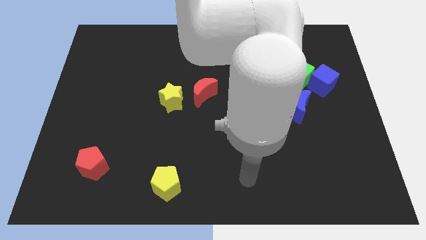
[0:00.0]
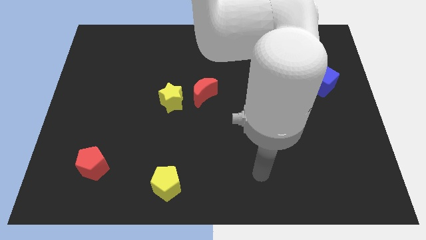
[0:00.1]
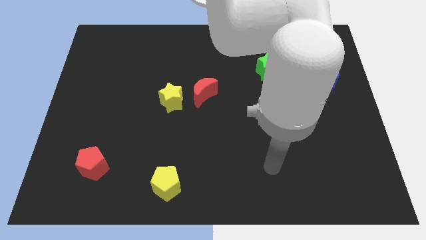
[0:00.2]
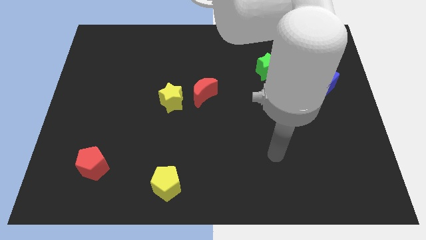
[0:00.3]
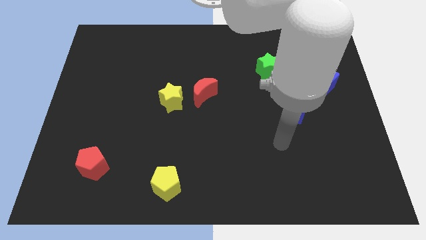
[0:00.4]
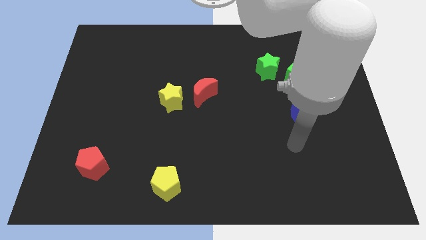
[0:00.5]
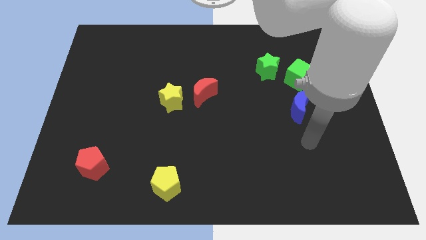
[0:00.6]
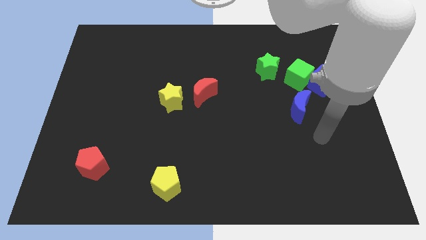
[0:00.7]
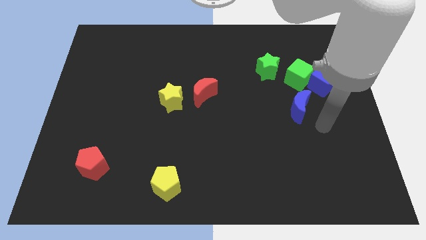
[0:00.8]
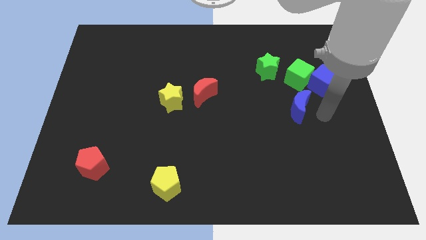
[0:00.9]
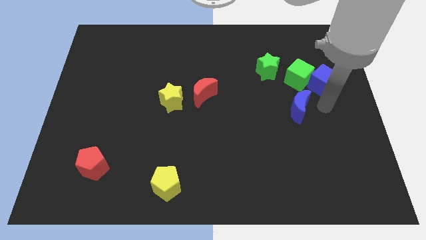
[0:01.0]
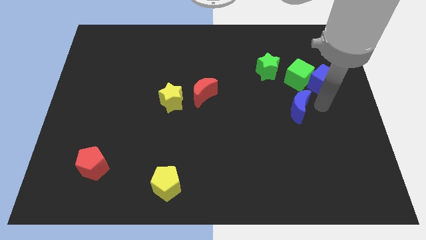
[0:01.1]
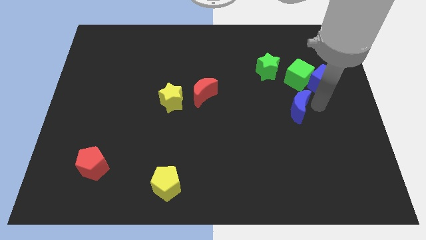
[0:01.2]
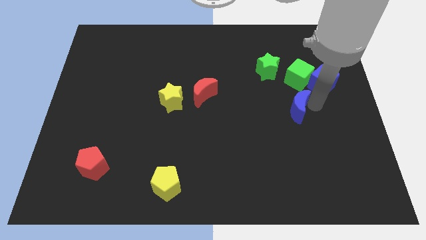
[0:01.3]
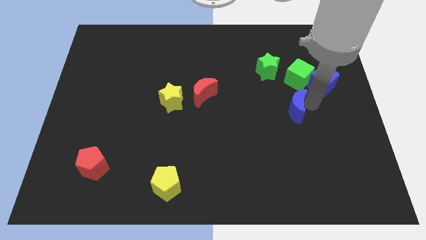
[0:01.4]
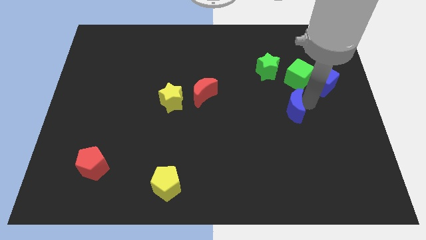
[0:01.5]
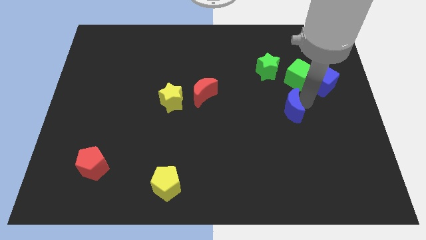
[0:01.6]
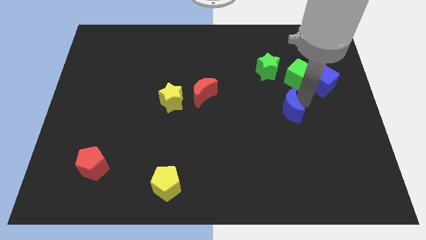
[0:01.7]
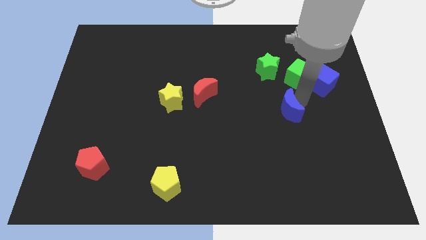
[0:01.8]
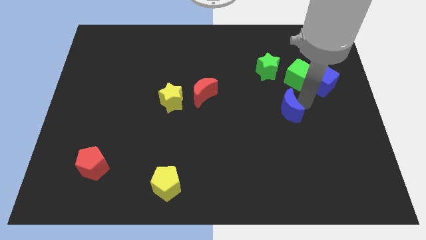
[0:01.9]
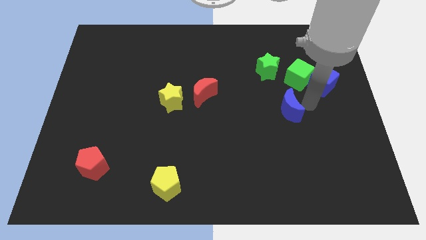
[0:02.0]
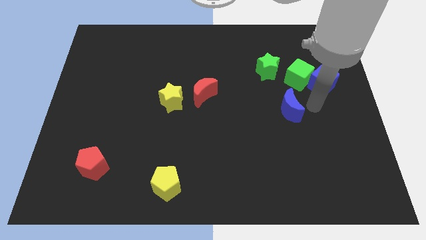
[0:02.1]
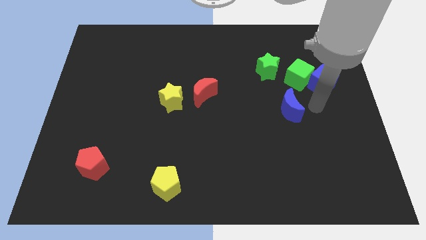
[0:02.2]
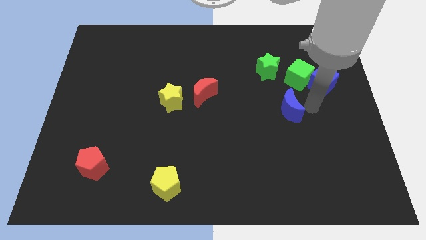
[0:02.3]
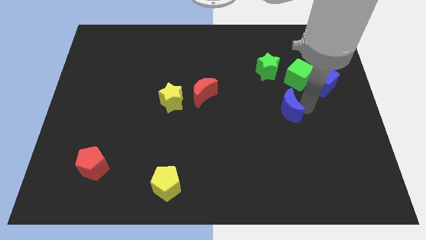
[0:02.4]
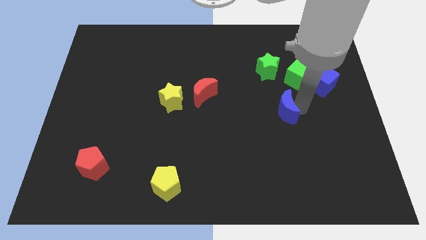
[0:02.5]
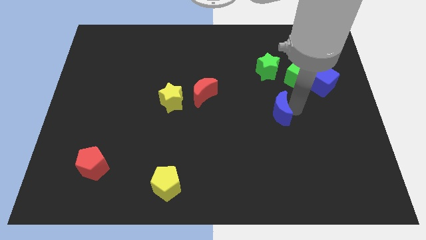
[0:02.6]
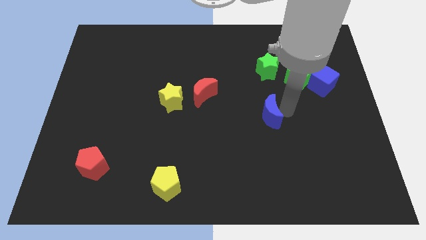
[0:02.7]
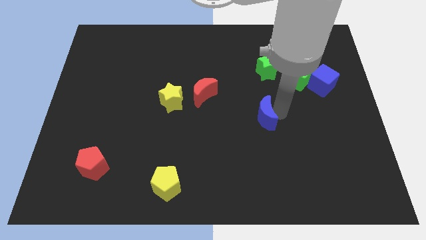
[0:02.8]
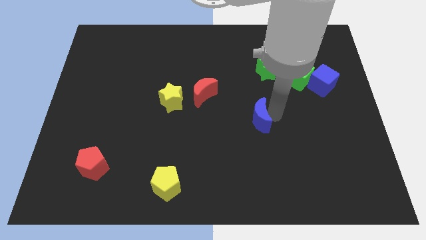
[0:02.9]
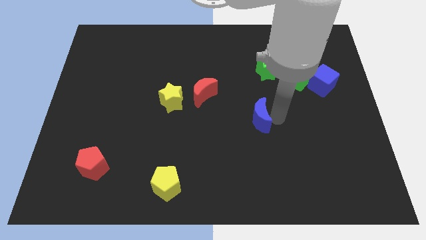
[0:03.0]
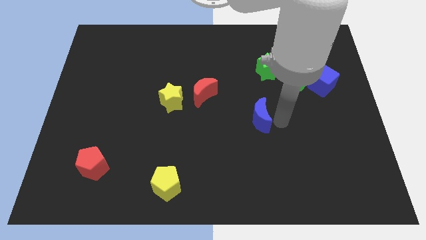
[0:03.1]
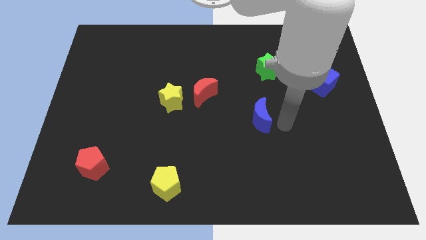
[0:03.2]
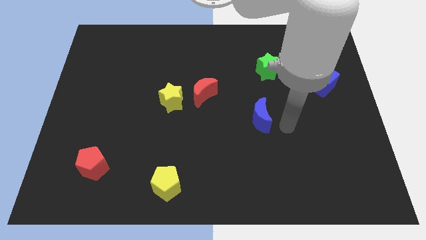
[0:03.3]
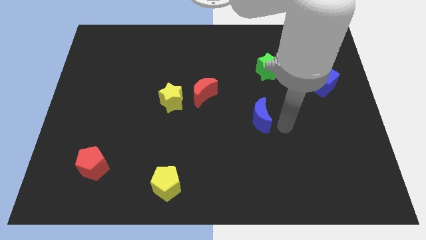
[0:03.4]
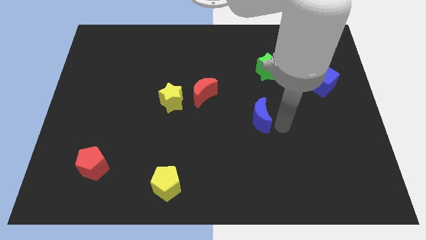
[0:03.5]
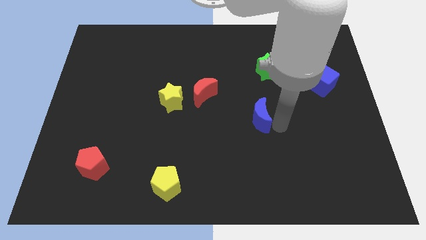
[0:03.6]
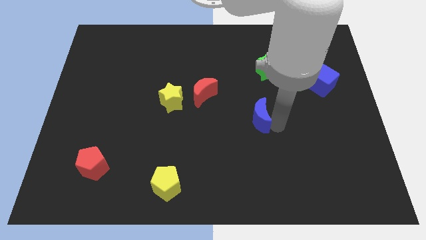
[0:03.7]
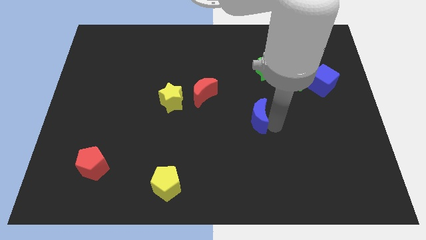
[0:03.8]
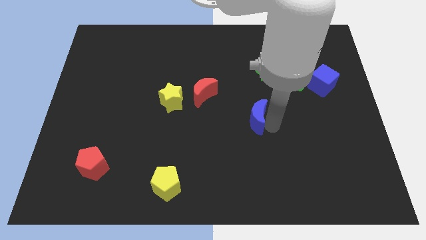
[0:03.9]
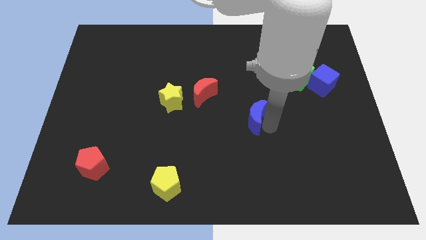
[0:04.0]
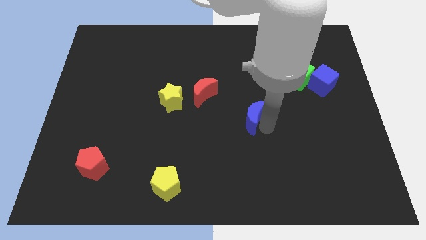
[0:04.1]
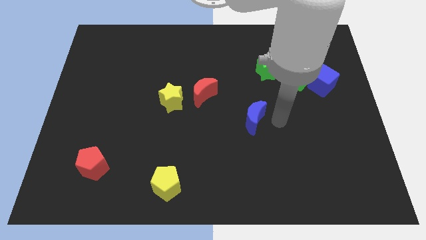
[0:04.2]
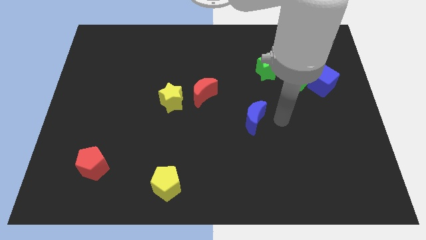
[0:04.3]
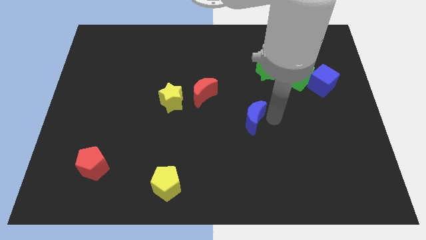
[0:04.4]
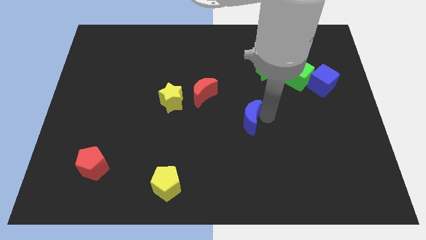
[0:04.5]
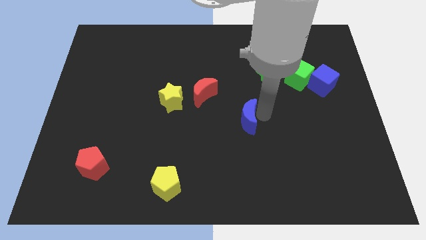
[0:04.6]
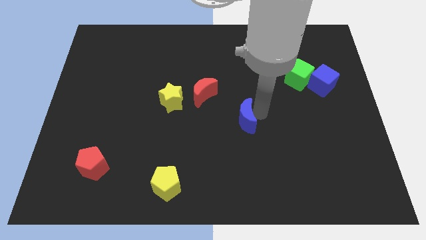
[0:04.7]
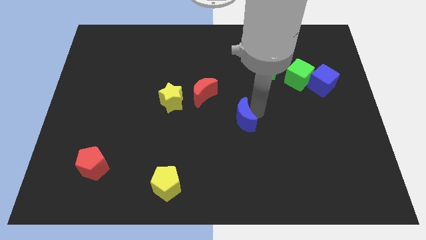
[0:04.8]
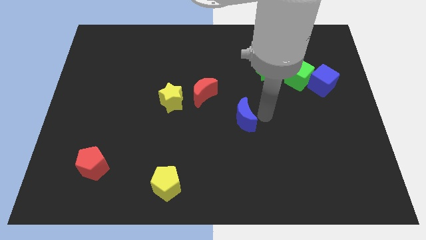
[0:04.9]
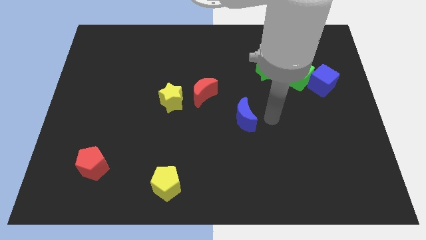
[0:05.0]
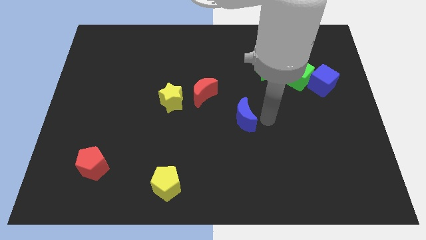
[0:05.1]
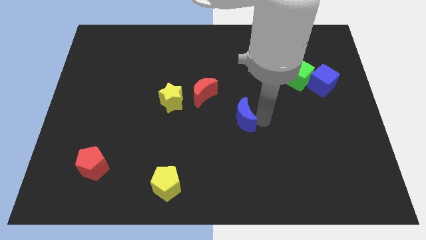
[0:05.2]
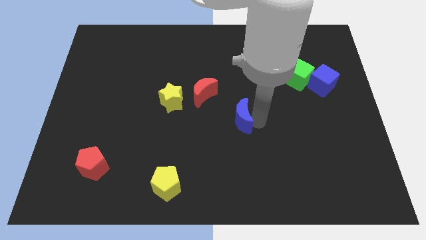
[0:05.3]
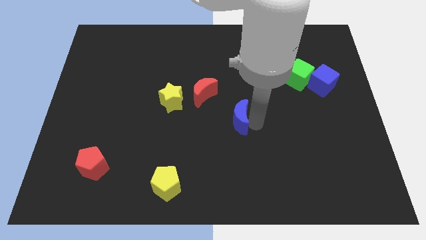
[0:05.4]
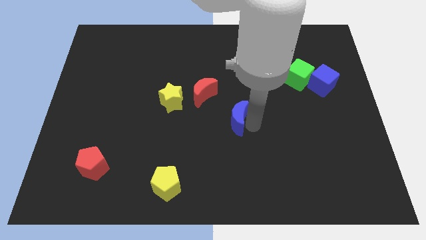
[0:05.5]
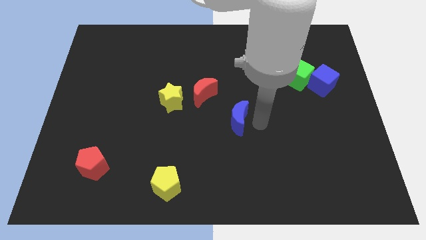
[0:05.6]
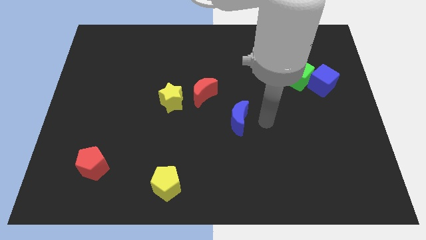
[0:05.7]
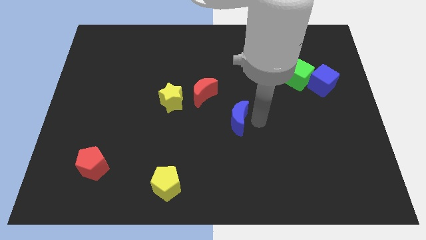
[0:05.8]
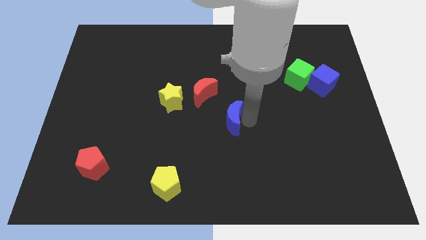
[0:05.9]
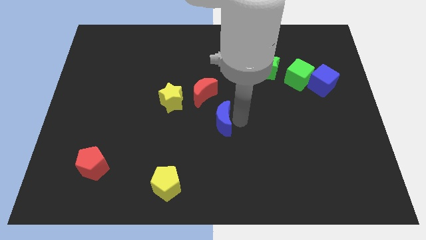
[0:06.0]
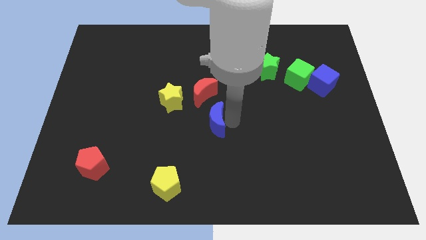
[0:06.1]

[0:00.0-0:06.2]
slide the blue moon to the bottom right of the yellow star

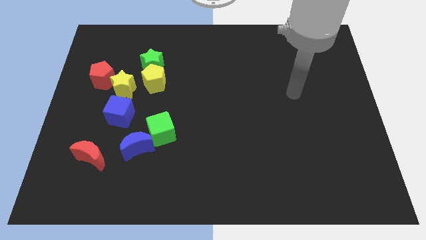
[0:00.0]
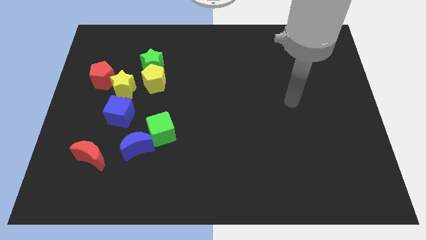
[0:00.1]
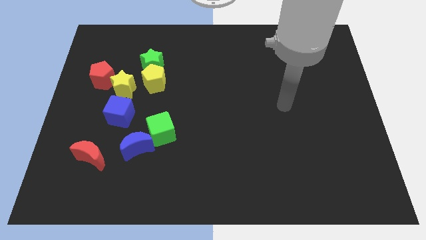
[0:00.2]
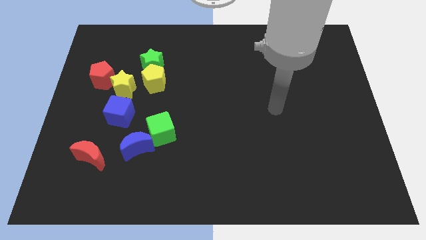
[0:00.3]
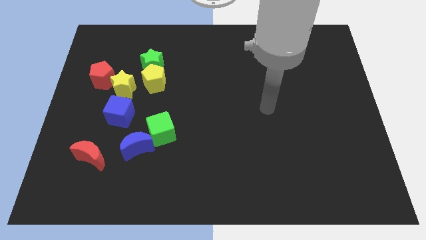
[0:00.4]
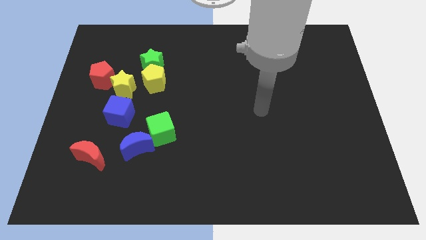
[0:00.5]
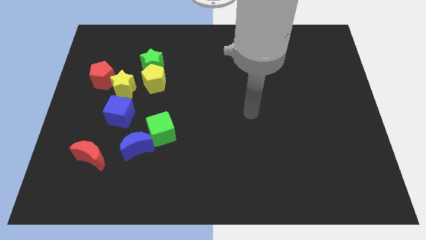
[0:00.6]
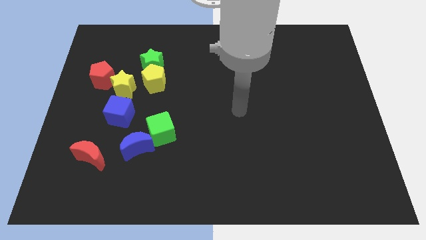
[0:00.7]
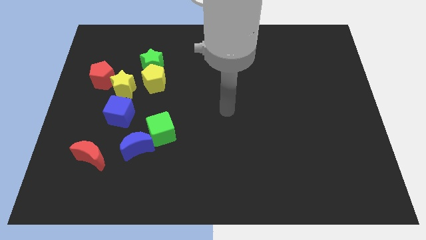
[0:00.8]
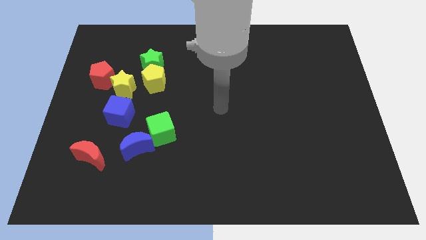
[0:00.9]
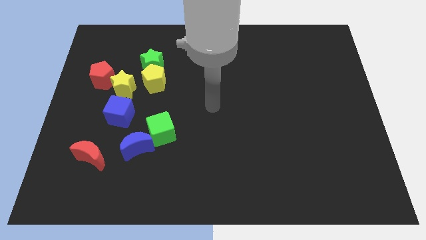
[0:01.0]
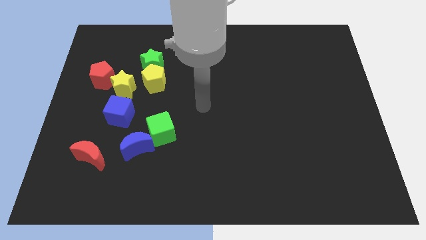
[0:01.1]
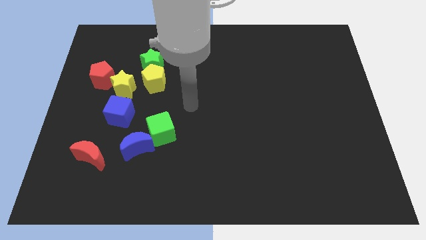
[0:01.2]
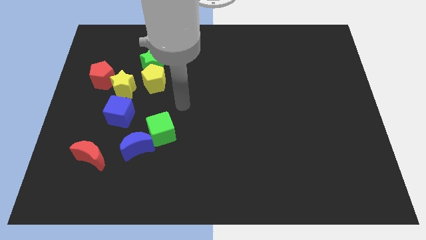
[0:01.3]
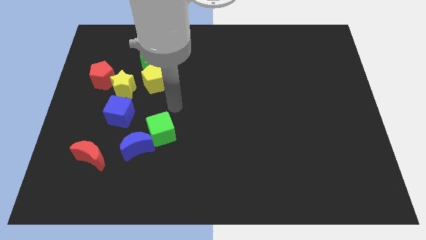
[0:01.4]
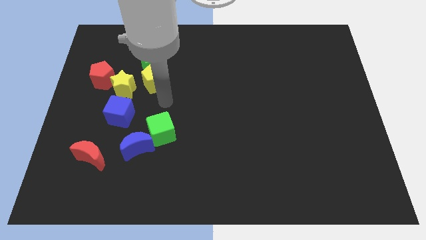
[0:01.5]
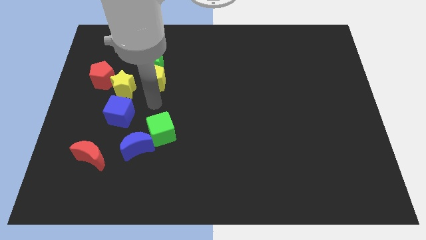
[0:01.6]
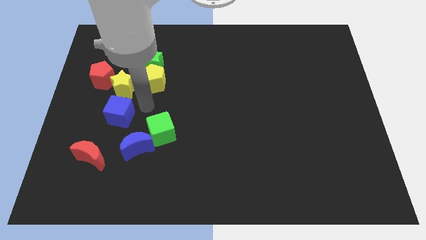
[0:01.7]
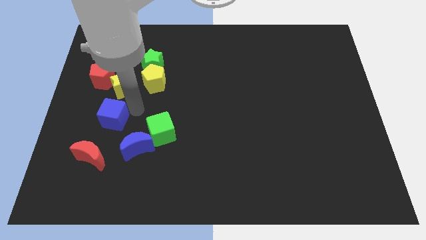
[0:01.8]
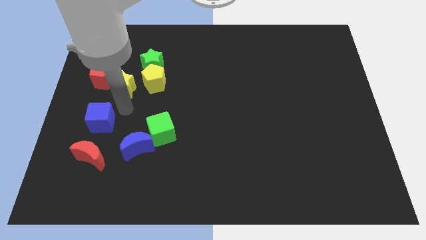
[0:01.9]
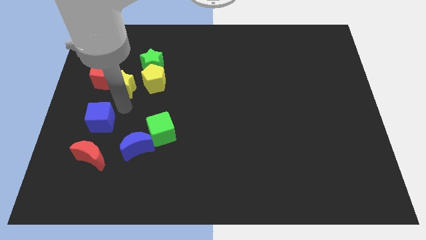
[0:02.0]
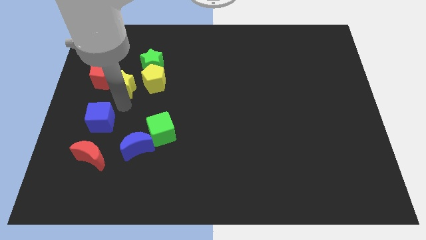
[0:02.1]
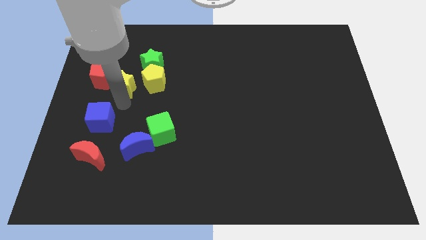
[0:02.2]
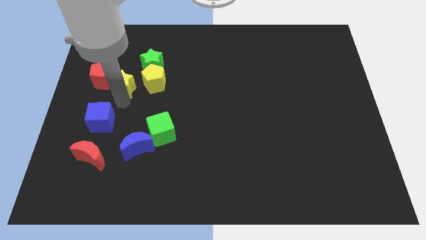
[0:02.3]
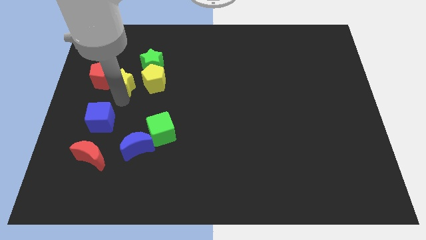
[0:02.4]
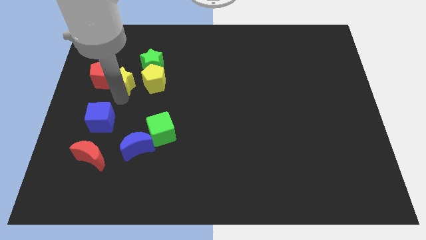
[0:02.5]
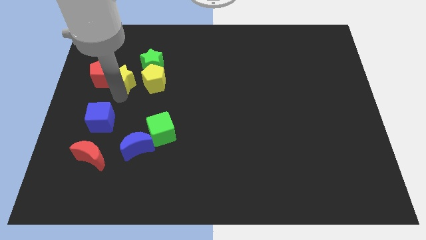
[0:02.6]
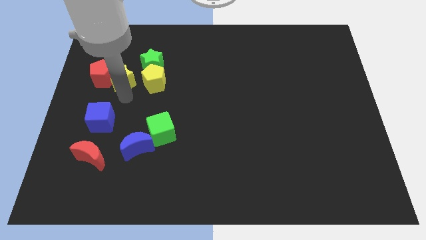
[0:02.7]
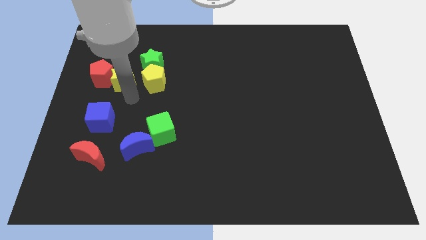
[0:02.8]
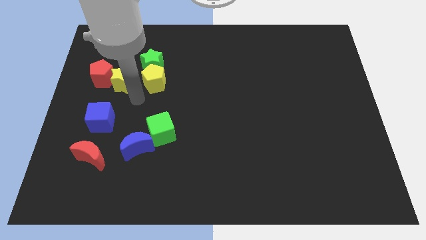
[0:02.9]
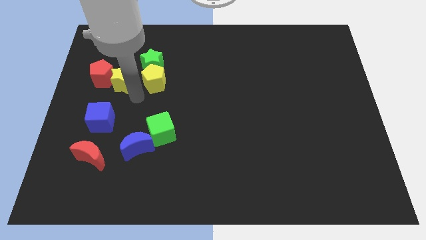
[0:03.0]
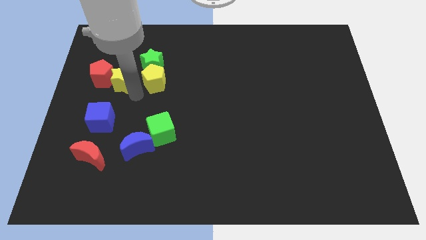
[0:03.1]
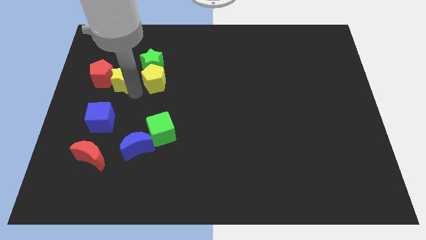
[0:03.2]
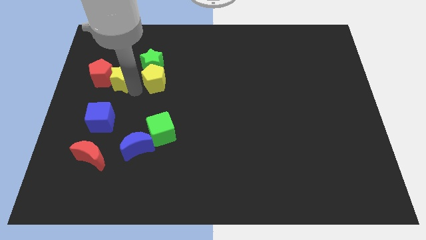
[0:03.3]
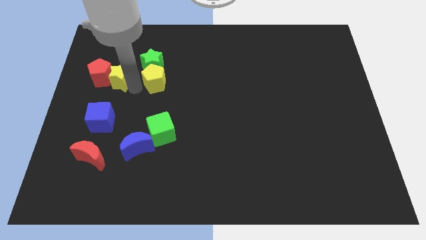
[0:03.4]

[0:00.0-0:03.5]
slide the yellow star just left of the green star
